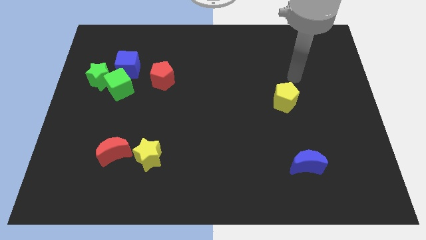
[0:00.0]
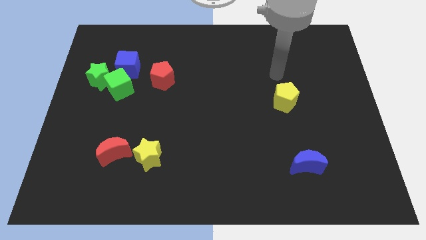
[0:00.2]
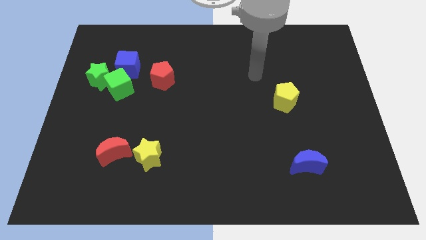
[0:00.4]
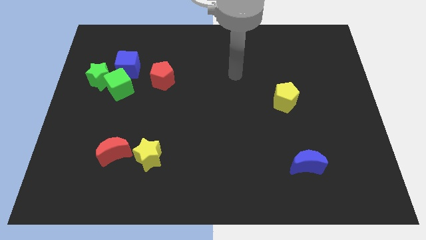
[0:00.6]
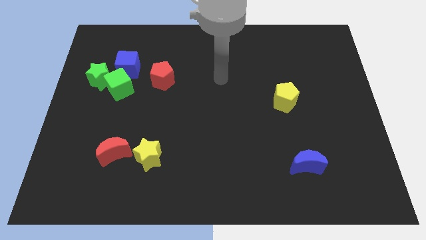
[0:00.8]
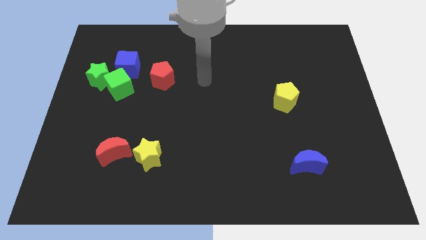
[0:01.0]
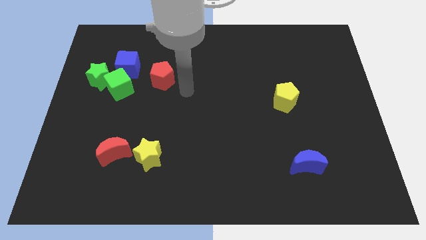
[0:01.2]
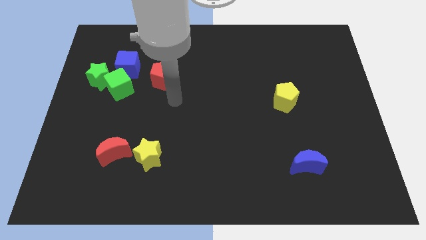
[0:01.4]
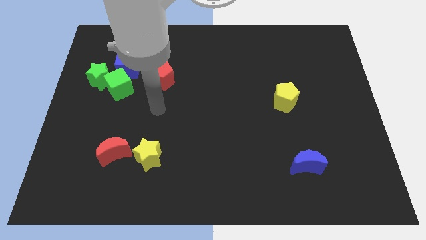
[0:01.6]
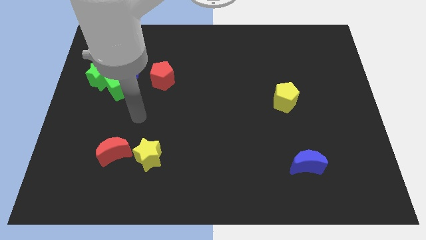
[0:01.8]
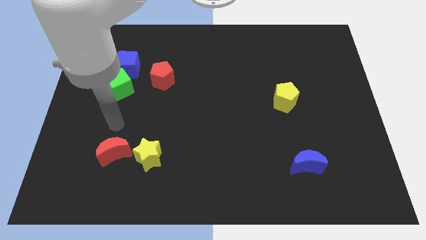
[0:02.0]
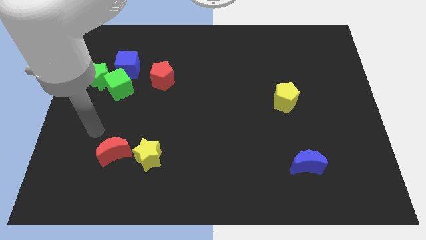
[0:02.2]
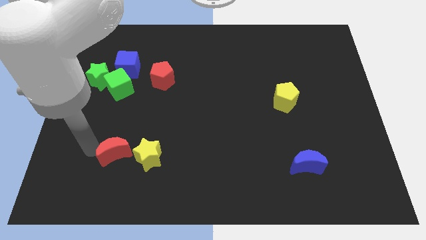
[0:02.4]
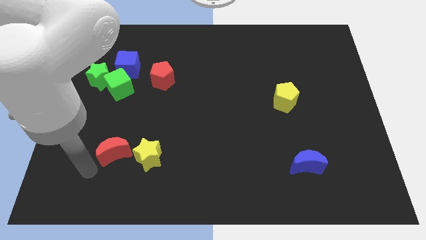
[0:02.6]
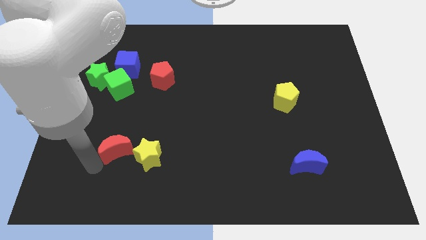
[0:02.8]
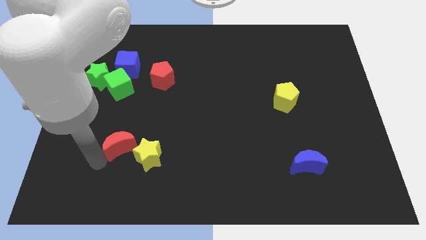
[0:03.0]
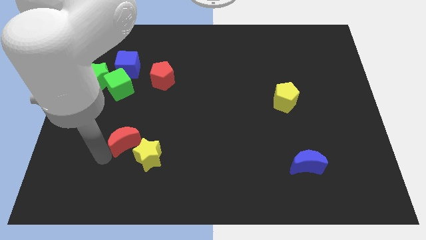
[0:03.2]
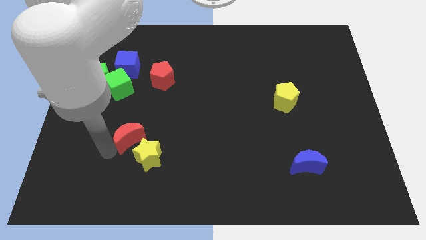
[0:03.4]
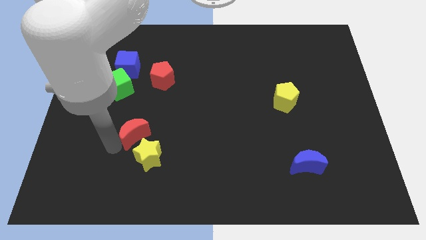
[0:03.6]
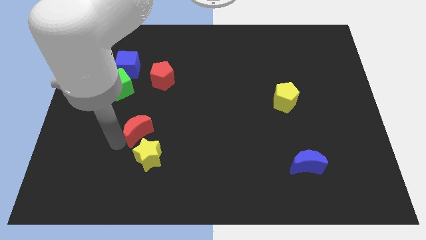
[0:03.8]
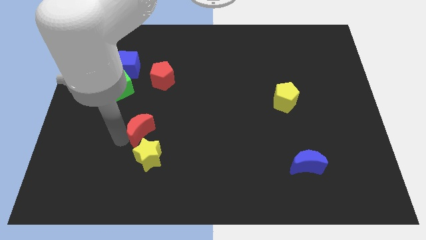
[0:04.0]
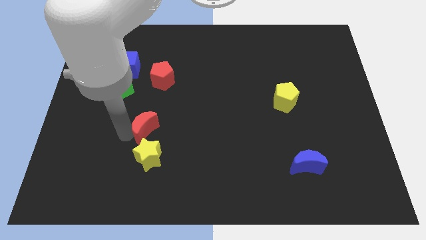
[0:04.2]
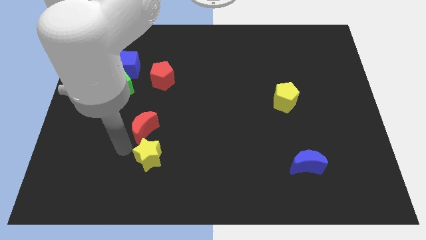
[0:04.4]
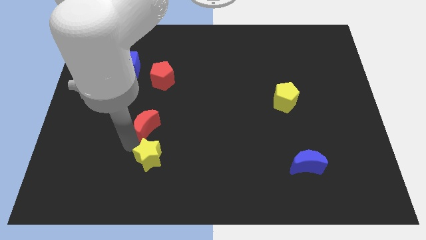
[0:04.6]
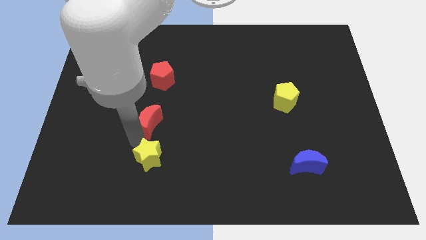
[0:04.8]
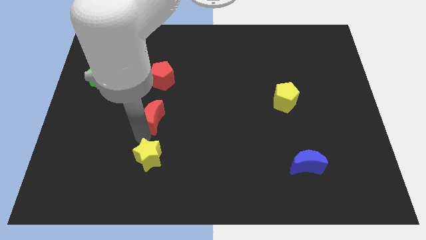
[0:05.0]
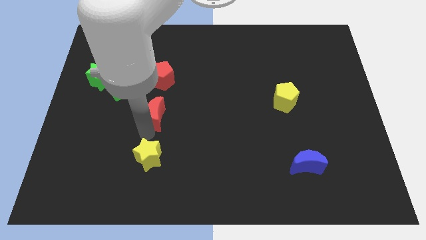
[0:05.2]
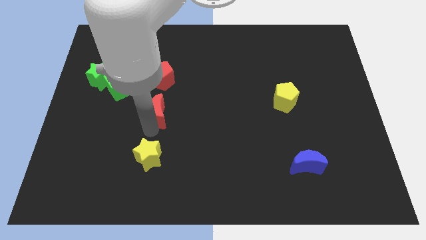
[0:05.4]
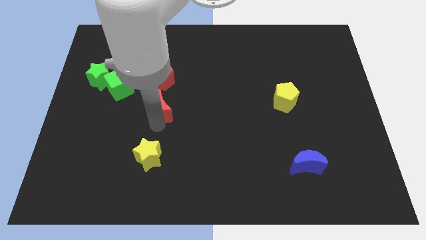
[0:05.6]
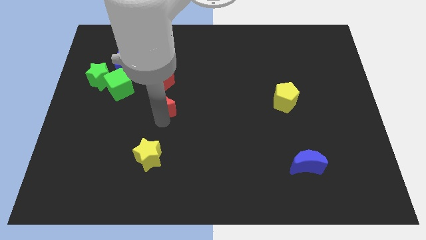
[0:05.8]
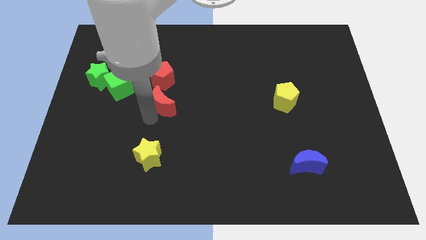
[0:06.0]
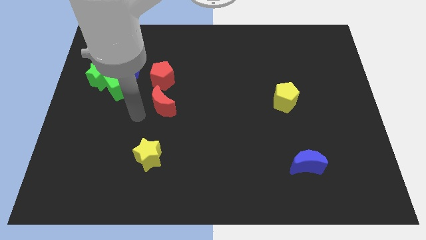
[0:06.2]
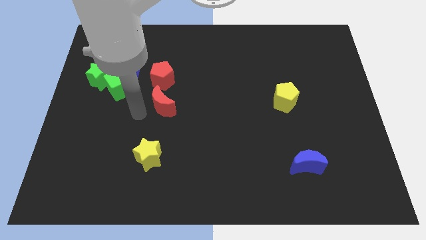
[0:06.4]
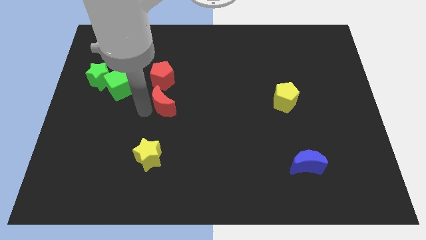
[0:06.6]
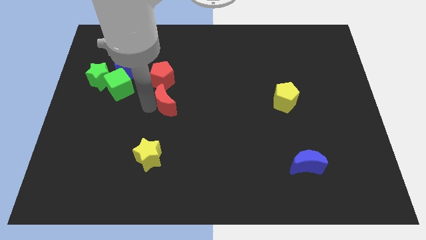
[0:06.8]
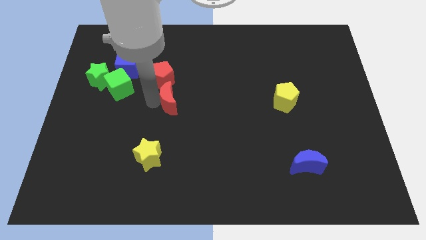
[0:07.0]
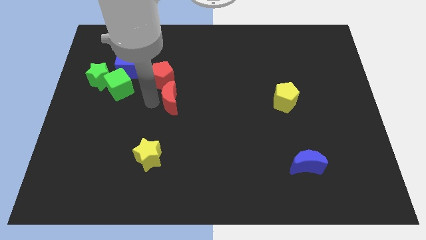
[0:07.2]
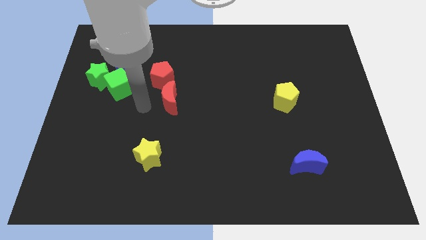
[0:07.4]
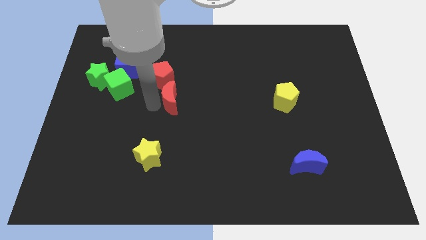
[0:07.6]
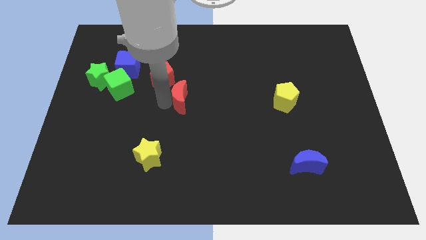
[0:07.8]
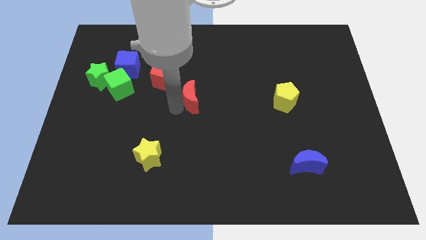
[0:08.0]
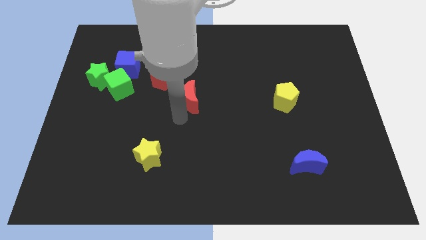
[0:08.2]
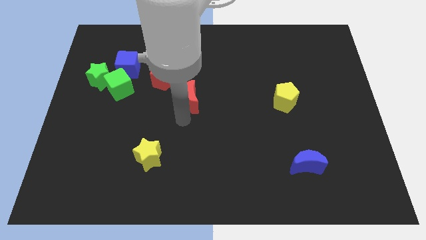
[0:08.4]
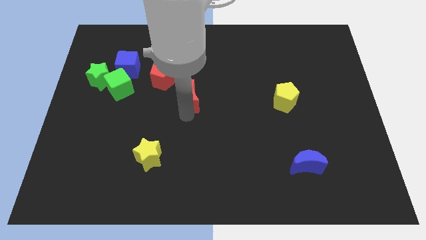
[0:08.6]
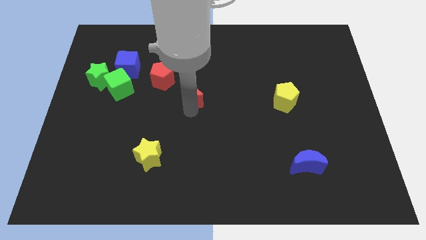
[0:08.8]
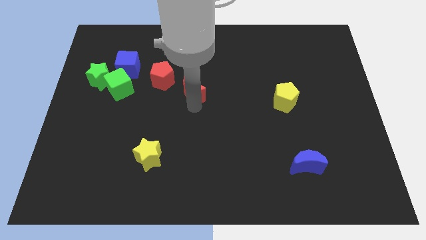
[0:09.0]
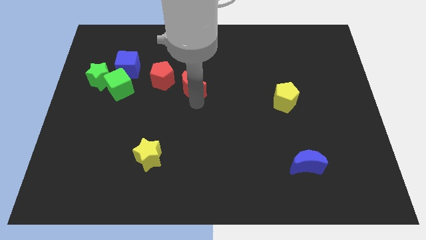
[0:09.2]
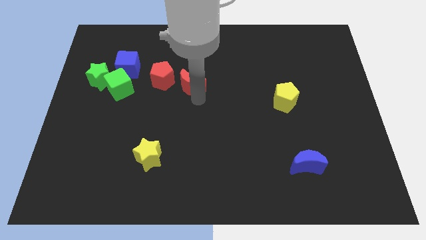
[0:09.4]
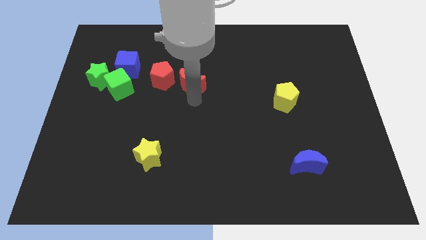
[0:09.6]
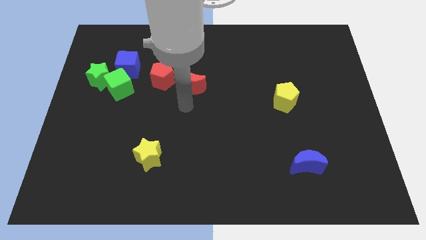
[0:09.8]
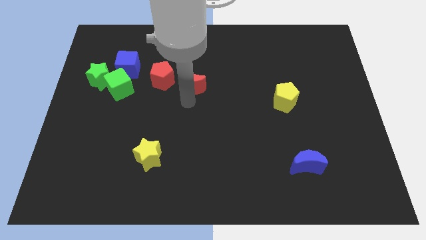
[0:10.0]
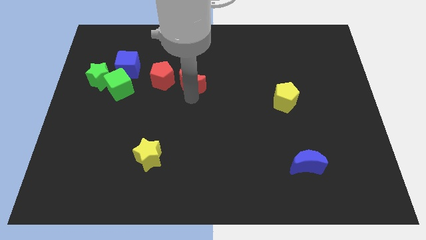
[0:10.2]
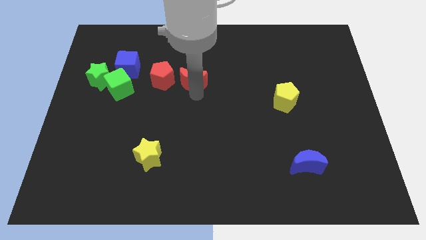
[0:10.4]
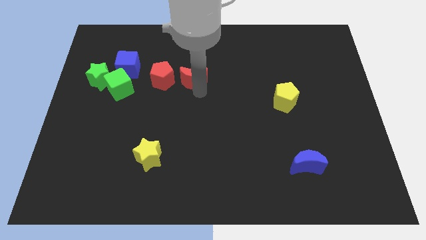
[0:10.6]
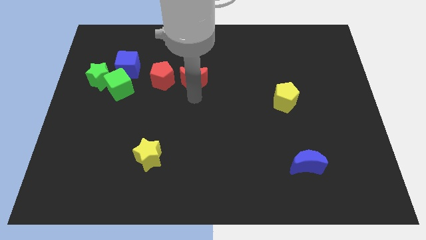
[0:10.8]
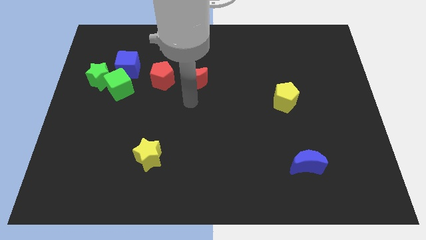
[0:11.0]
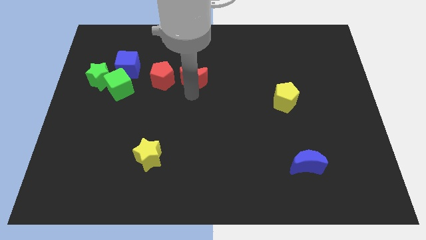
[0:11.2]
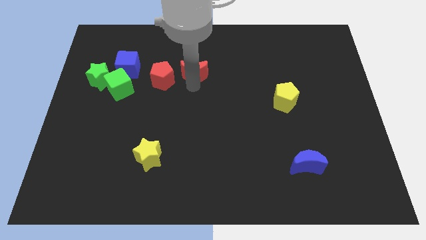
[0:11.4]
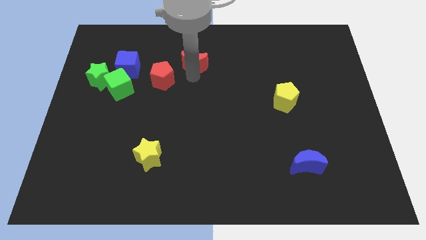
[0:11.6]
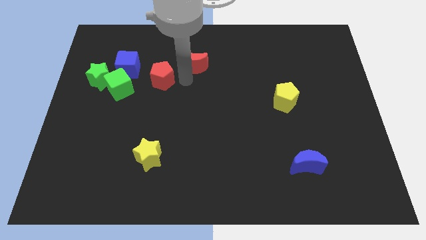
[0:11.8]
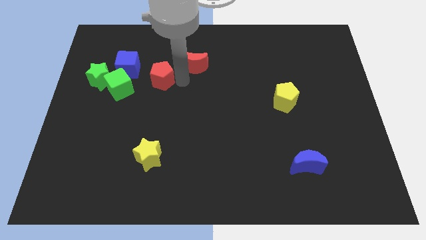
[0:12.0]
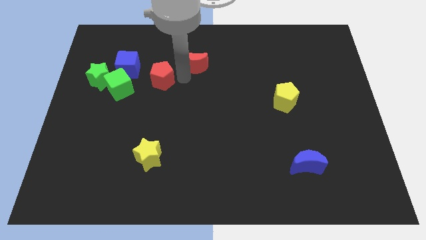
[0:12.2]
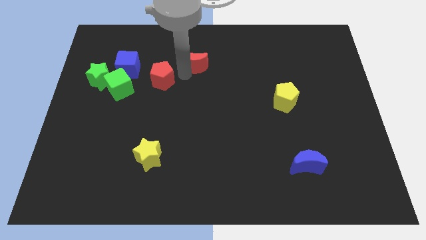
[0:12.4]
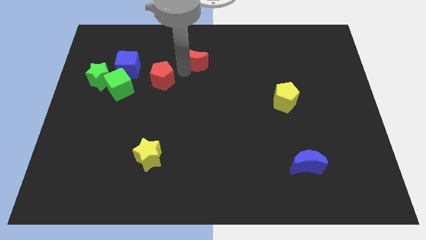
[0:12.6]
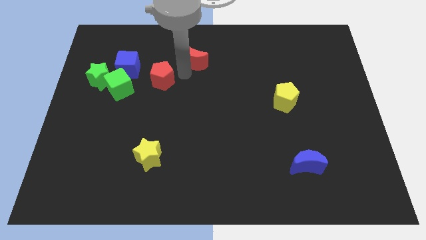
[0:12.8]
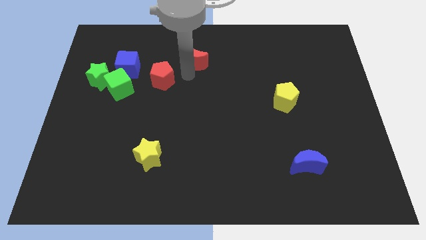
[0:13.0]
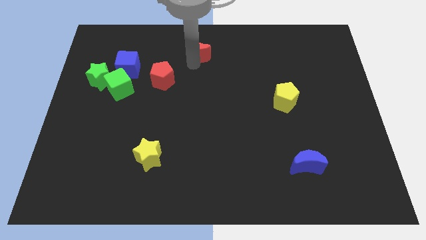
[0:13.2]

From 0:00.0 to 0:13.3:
slide the red moon to the towards your base
